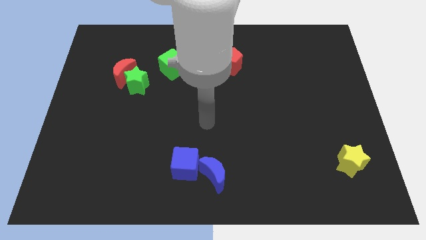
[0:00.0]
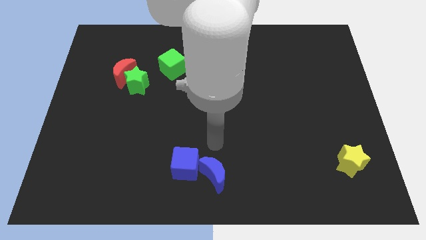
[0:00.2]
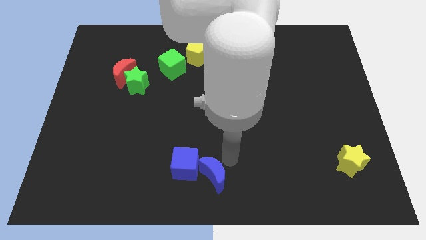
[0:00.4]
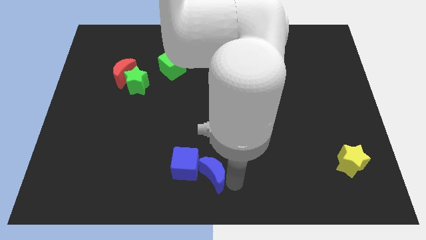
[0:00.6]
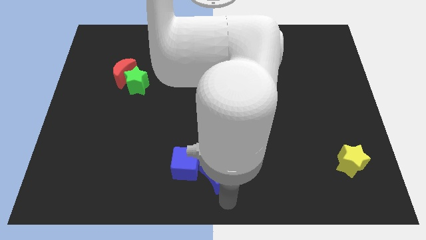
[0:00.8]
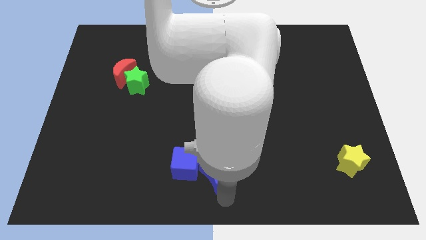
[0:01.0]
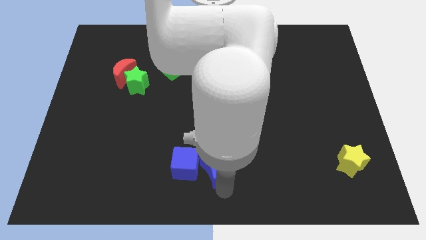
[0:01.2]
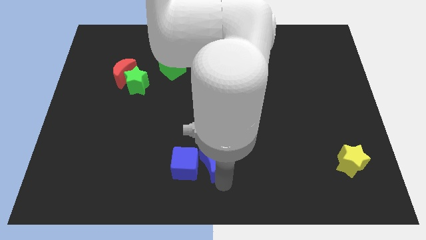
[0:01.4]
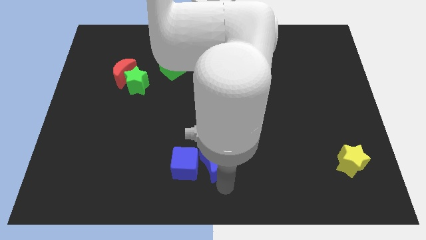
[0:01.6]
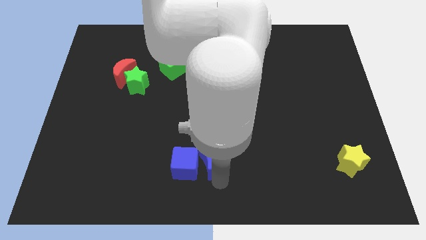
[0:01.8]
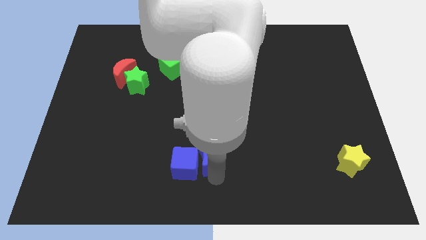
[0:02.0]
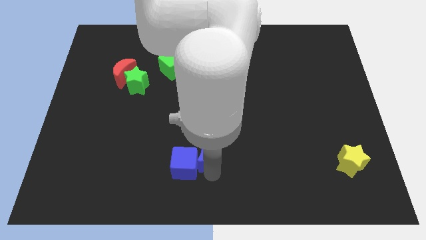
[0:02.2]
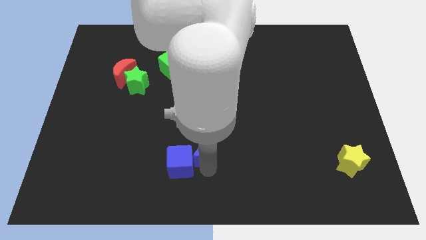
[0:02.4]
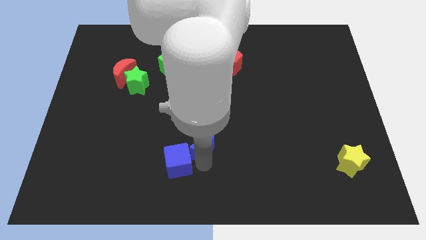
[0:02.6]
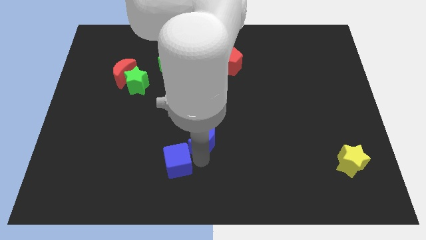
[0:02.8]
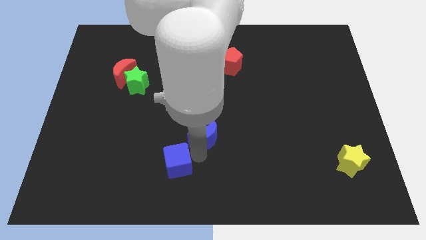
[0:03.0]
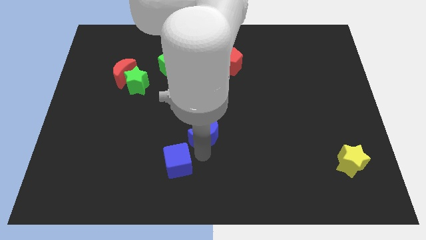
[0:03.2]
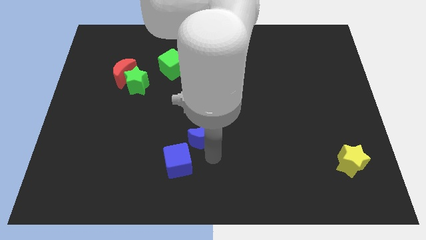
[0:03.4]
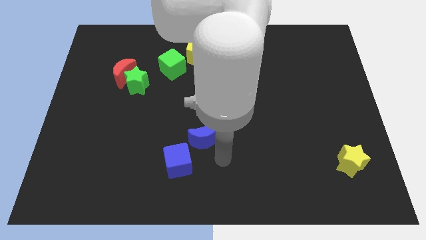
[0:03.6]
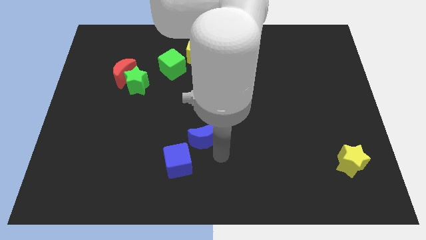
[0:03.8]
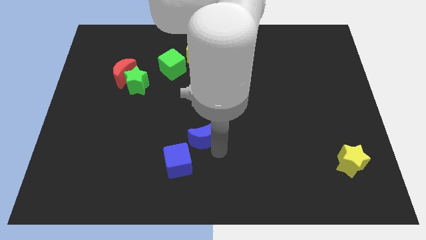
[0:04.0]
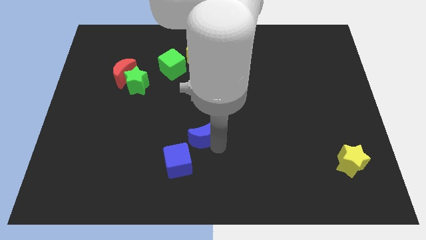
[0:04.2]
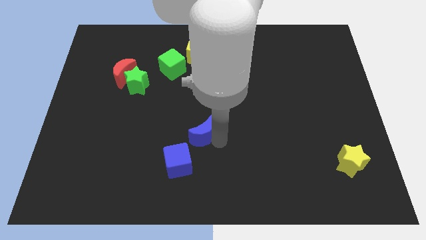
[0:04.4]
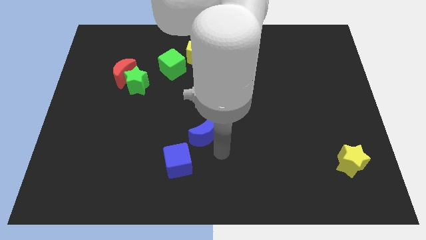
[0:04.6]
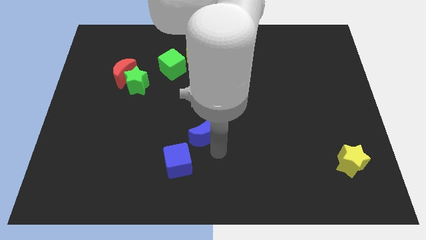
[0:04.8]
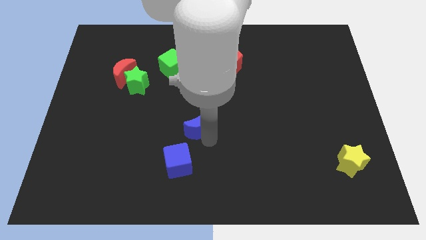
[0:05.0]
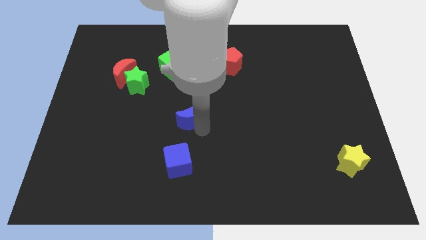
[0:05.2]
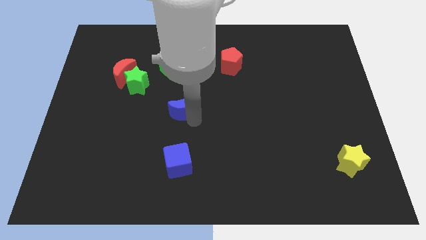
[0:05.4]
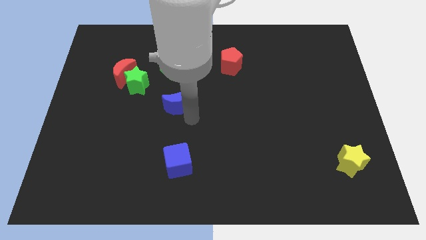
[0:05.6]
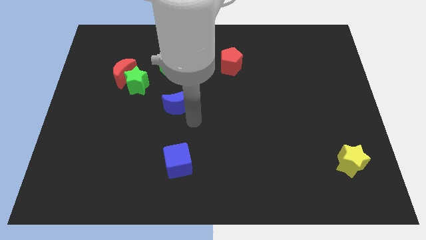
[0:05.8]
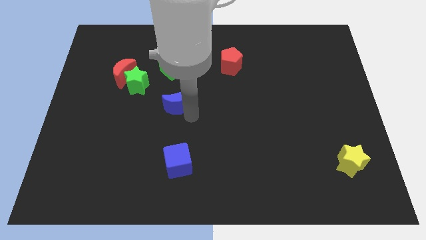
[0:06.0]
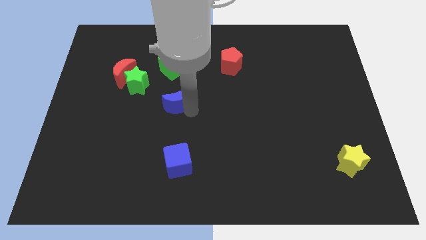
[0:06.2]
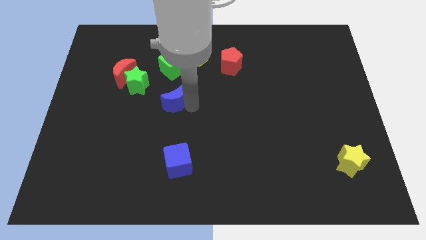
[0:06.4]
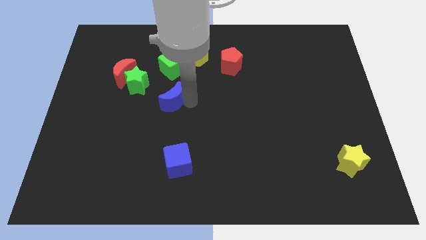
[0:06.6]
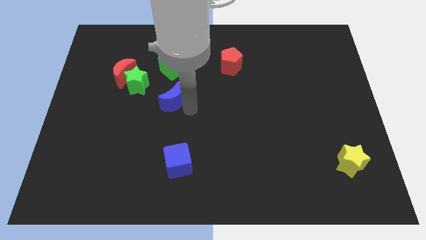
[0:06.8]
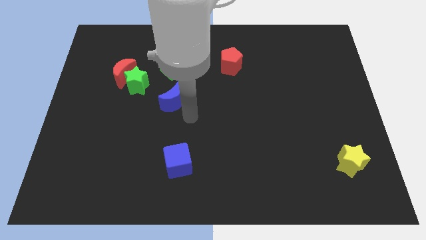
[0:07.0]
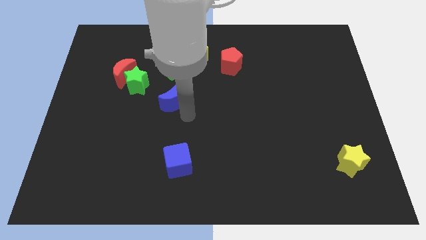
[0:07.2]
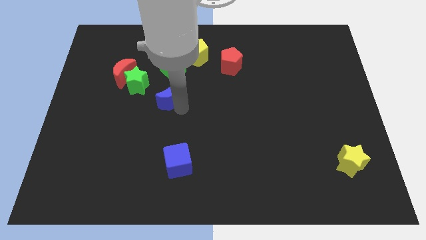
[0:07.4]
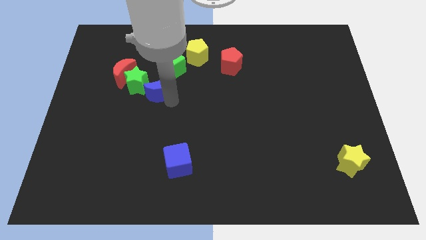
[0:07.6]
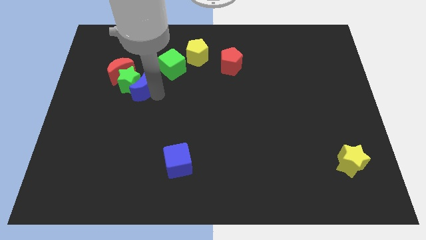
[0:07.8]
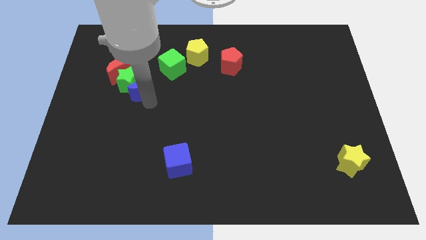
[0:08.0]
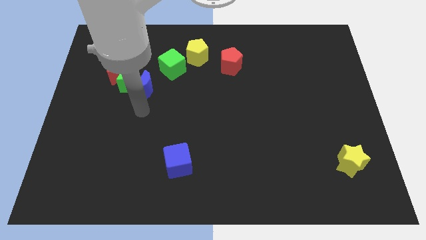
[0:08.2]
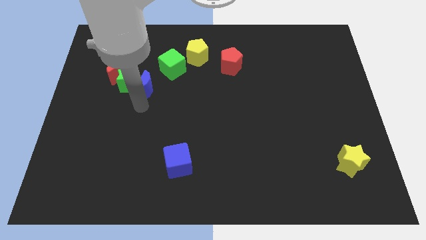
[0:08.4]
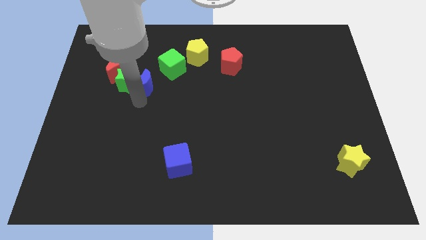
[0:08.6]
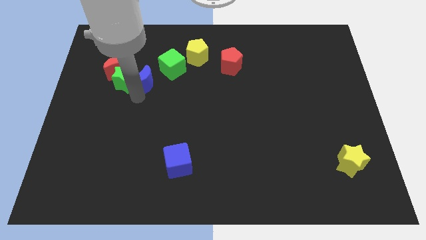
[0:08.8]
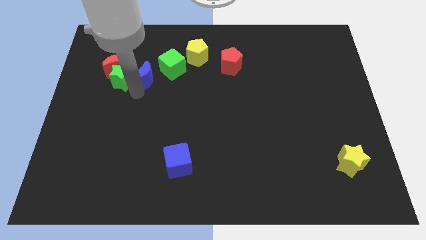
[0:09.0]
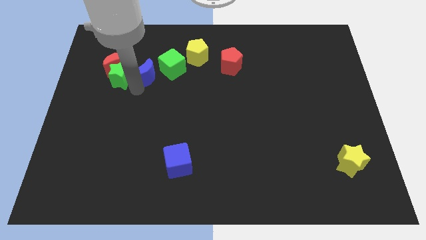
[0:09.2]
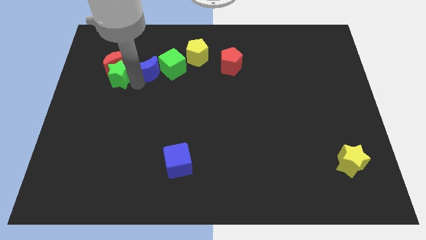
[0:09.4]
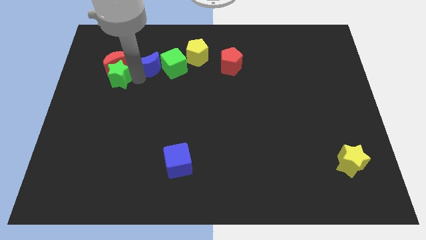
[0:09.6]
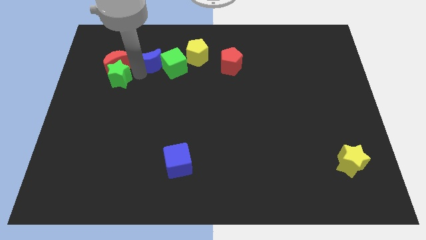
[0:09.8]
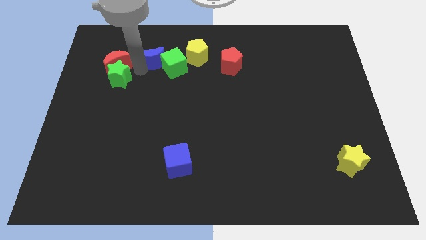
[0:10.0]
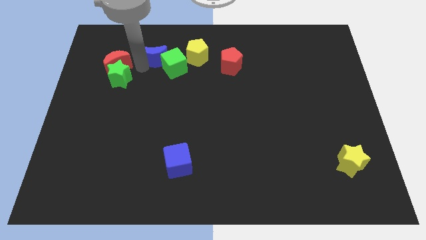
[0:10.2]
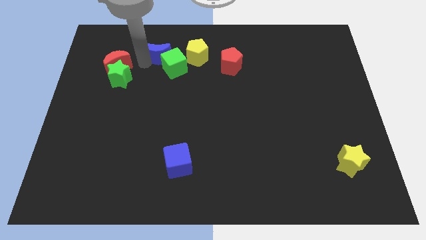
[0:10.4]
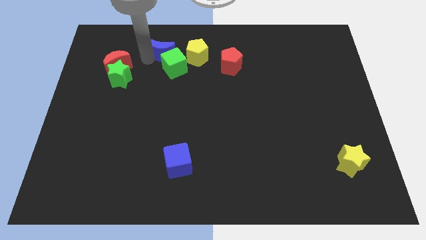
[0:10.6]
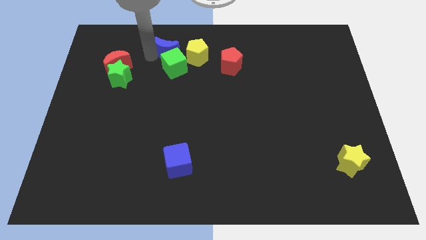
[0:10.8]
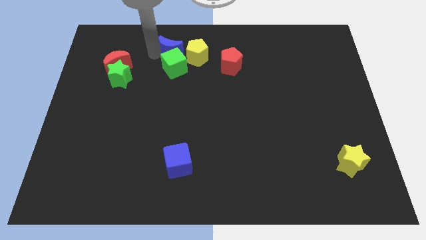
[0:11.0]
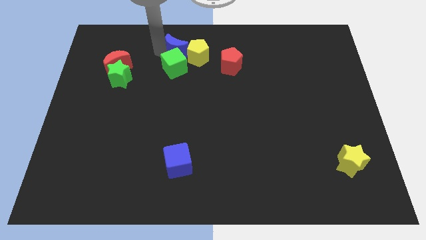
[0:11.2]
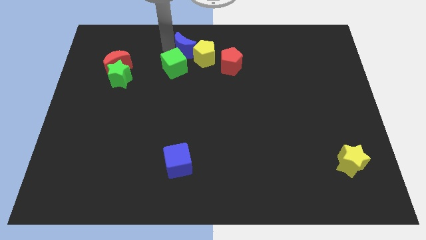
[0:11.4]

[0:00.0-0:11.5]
slide the blue moon to the top side

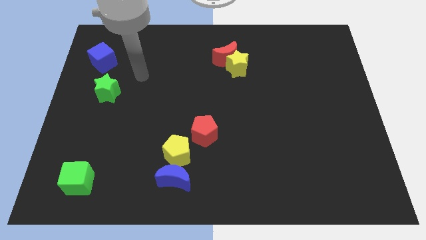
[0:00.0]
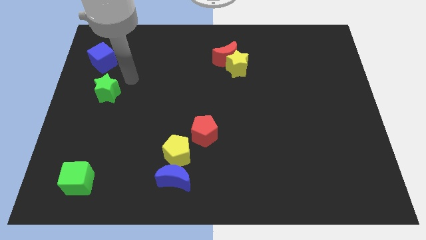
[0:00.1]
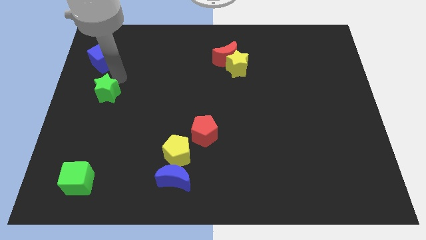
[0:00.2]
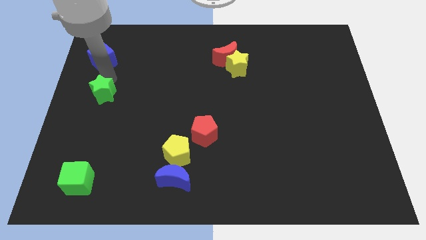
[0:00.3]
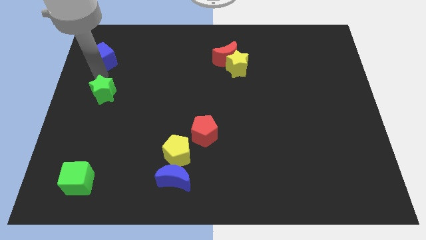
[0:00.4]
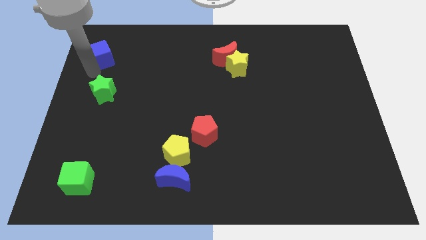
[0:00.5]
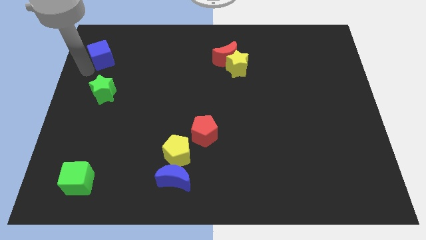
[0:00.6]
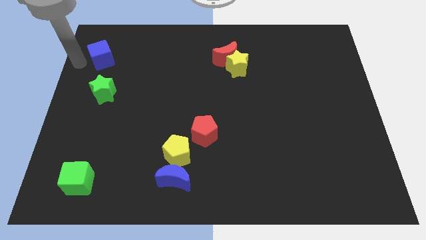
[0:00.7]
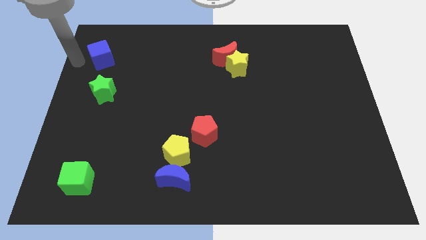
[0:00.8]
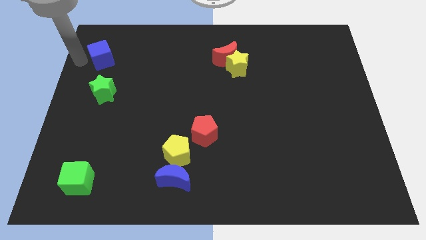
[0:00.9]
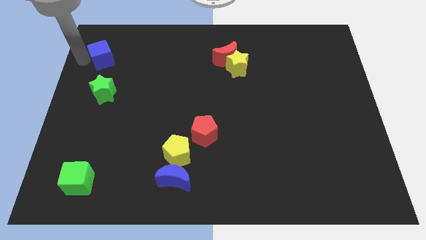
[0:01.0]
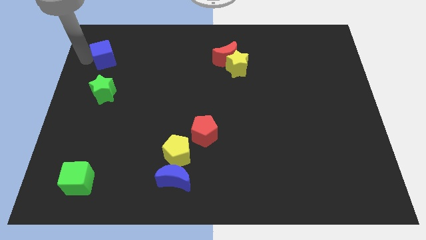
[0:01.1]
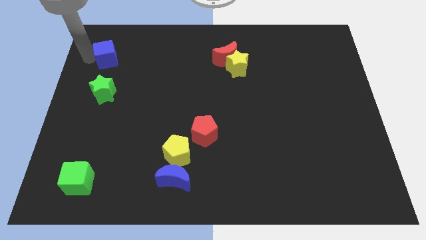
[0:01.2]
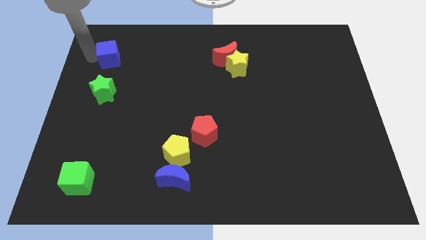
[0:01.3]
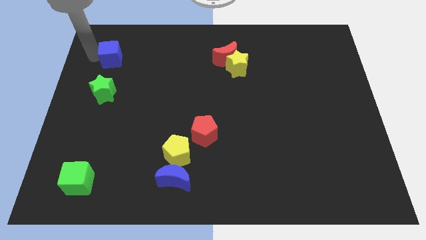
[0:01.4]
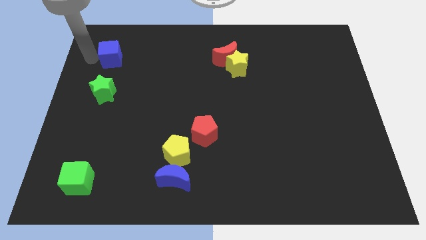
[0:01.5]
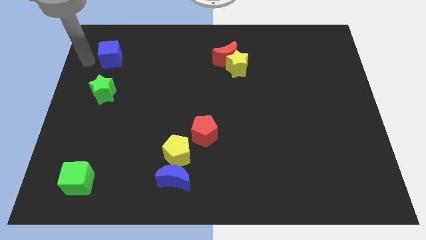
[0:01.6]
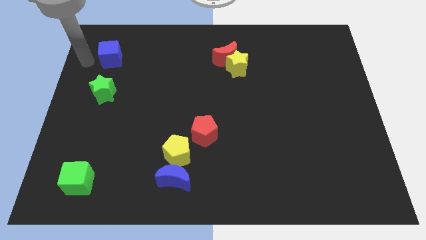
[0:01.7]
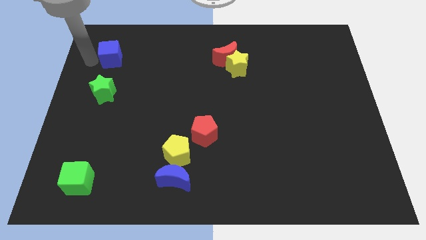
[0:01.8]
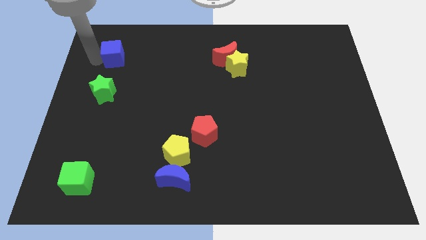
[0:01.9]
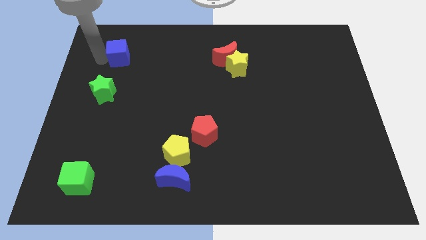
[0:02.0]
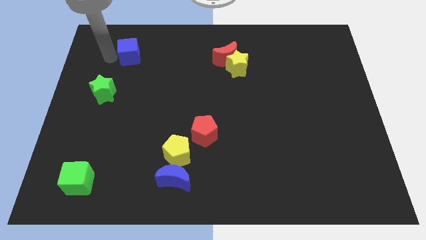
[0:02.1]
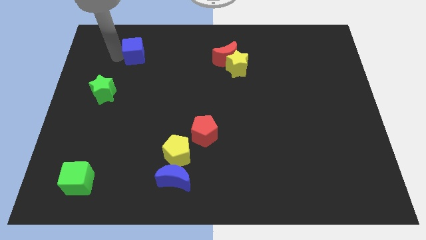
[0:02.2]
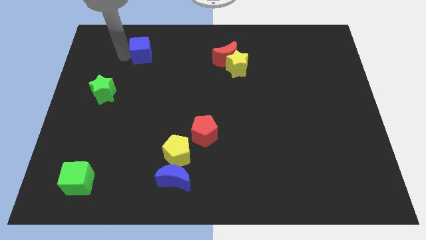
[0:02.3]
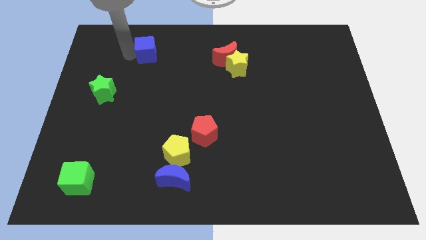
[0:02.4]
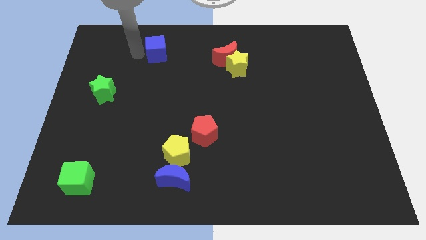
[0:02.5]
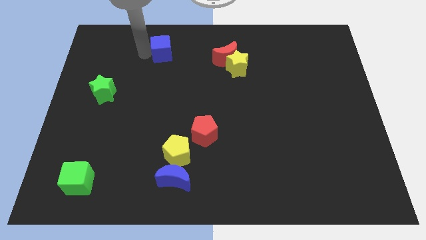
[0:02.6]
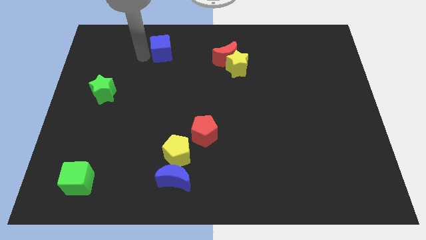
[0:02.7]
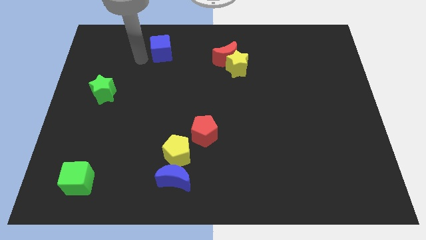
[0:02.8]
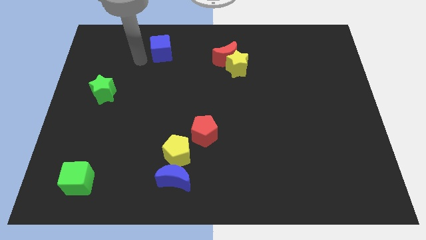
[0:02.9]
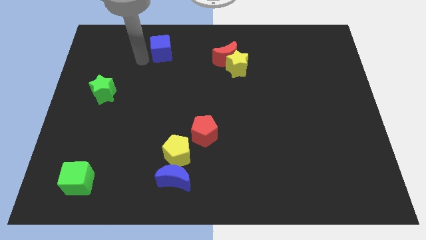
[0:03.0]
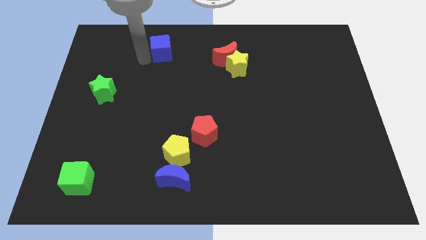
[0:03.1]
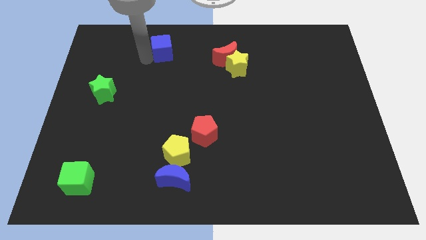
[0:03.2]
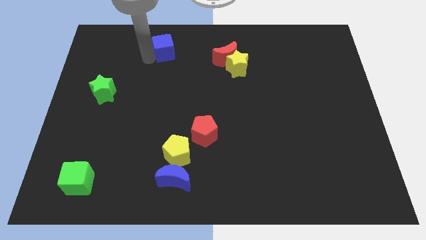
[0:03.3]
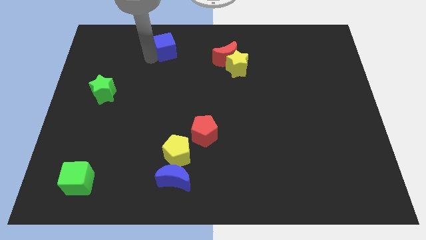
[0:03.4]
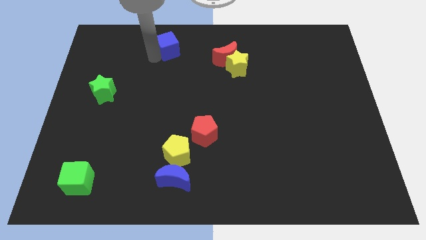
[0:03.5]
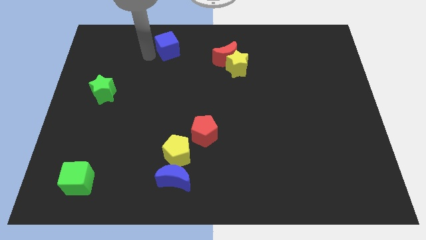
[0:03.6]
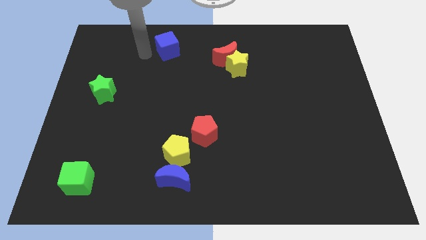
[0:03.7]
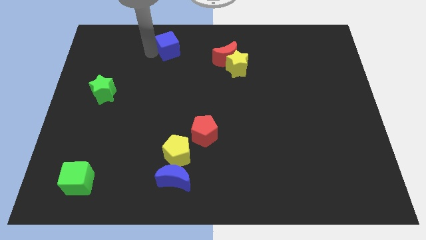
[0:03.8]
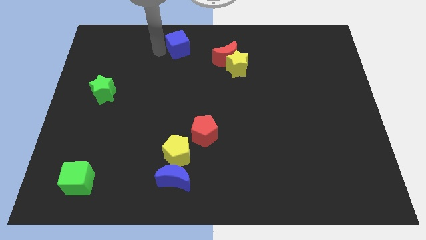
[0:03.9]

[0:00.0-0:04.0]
push the blue cube to the top
